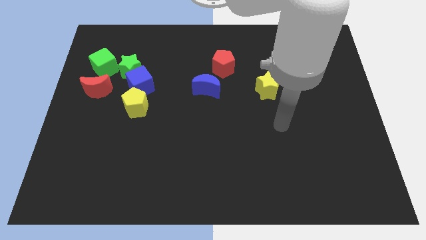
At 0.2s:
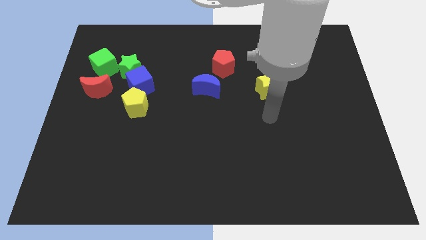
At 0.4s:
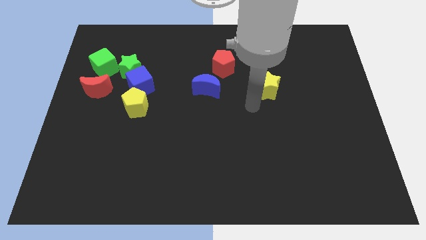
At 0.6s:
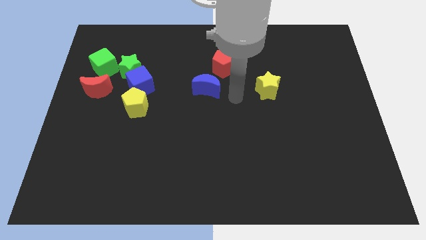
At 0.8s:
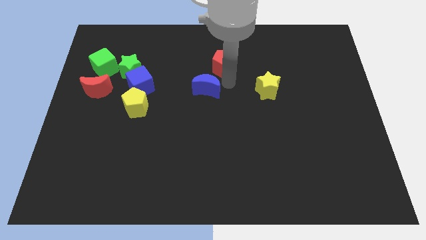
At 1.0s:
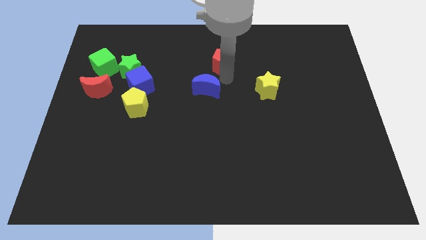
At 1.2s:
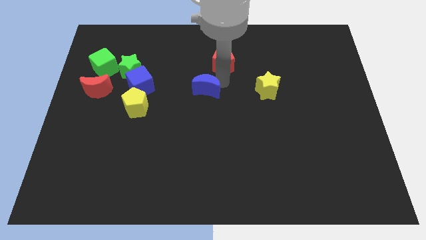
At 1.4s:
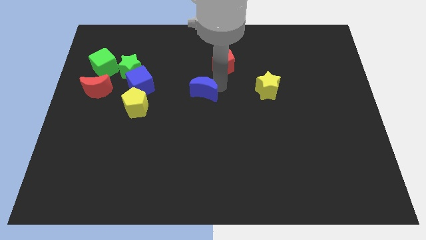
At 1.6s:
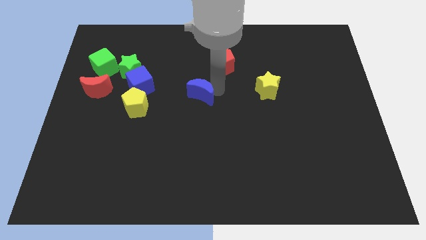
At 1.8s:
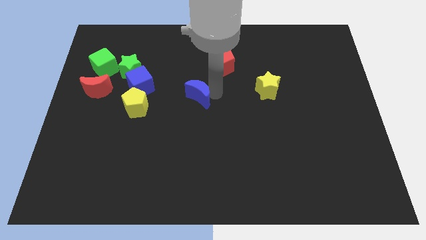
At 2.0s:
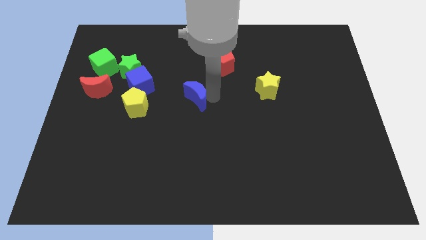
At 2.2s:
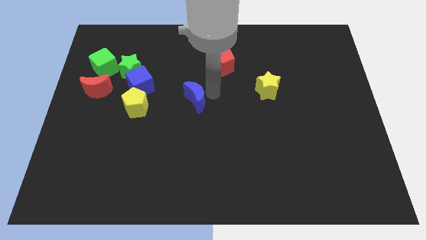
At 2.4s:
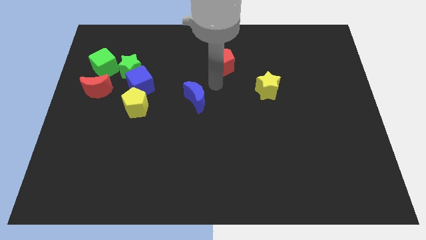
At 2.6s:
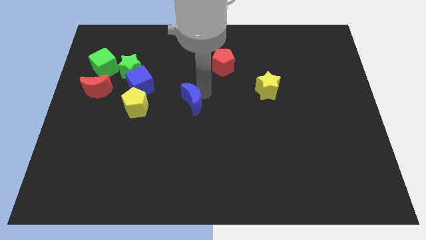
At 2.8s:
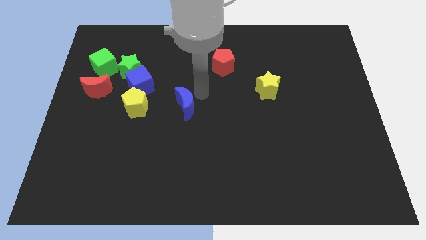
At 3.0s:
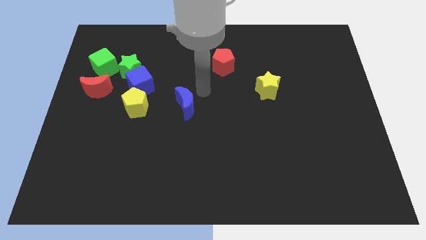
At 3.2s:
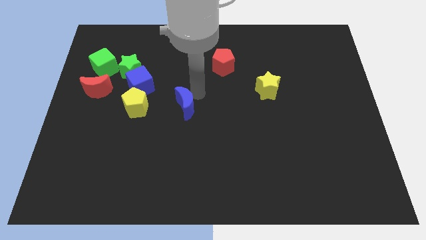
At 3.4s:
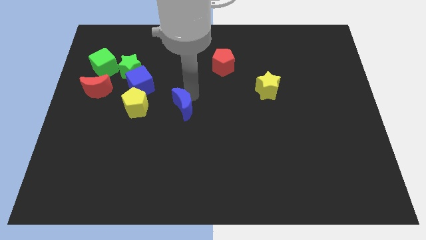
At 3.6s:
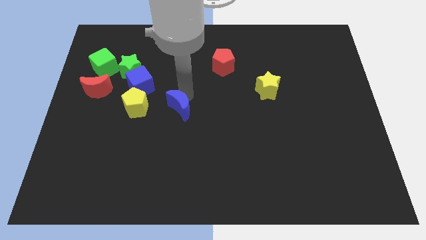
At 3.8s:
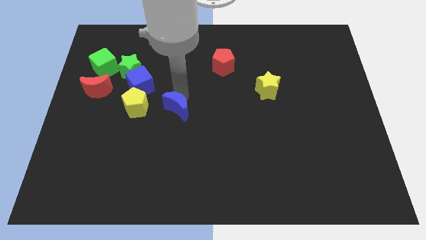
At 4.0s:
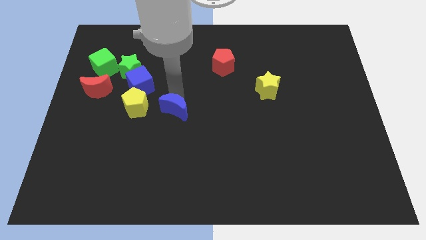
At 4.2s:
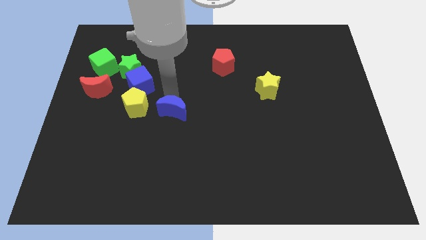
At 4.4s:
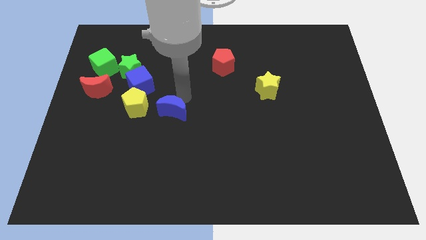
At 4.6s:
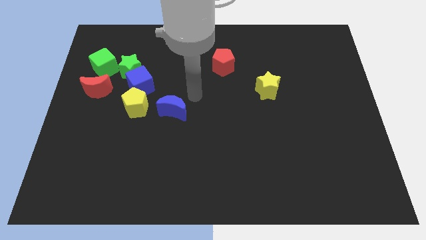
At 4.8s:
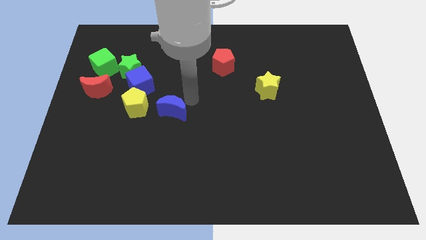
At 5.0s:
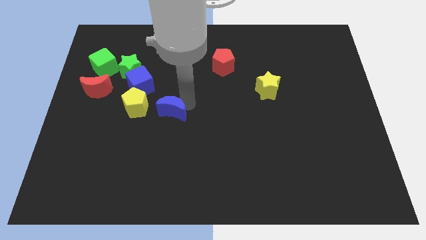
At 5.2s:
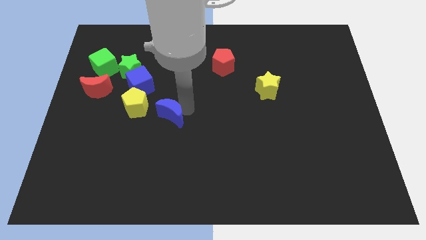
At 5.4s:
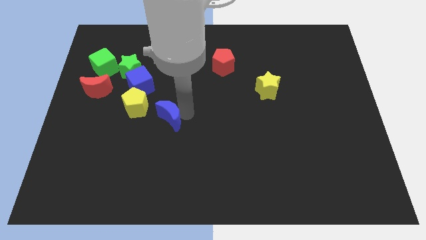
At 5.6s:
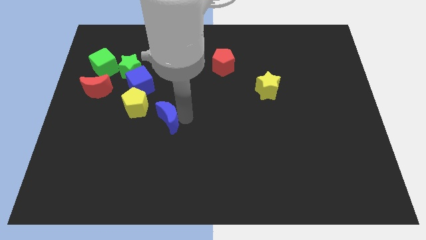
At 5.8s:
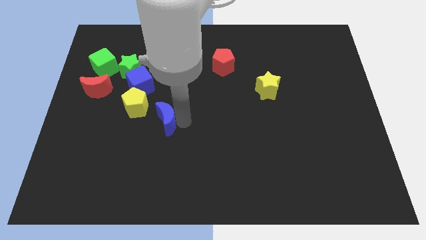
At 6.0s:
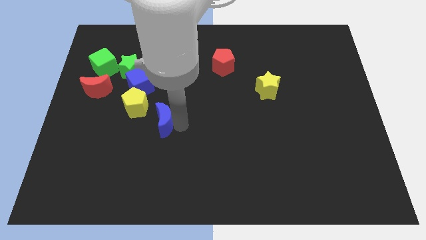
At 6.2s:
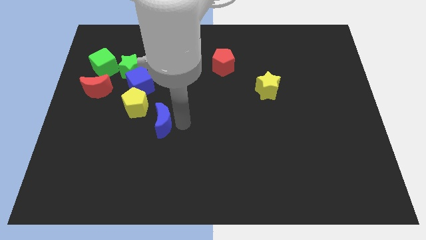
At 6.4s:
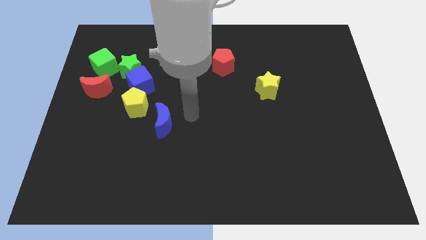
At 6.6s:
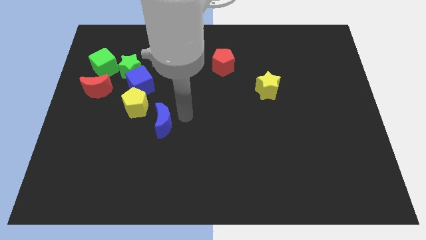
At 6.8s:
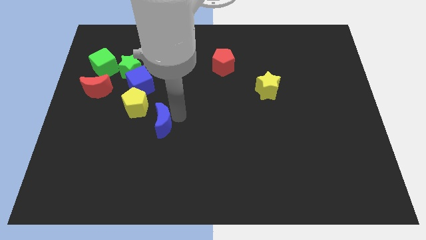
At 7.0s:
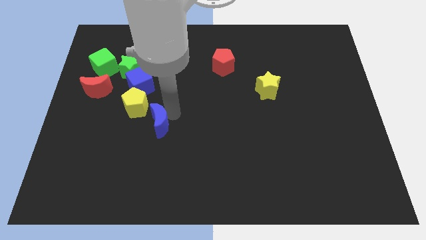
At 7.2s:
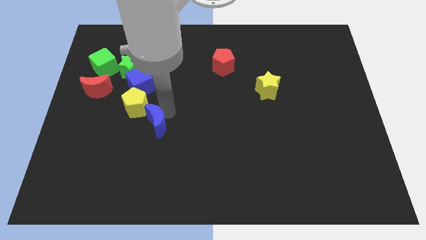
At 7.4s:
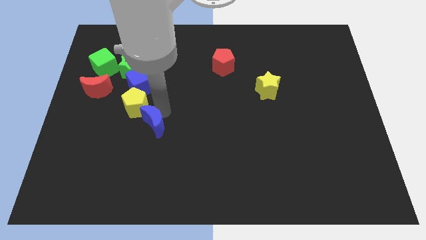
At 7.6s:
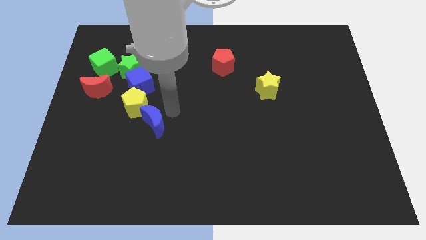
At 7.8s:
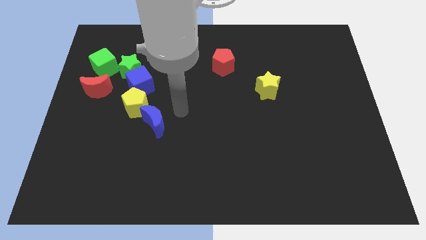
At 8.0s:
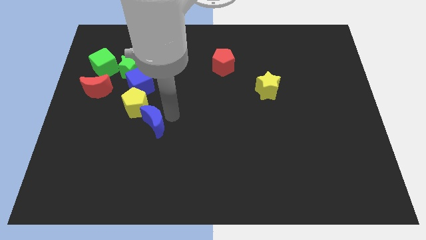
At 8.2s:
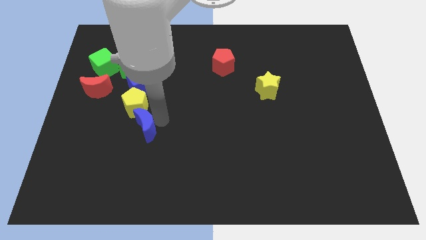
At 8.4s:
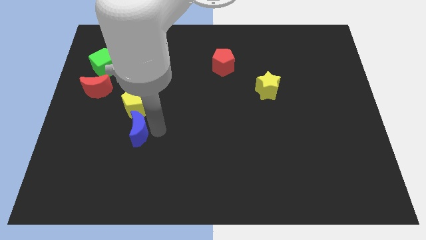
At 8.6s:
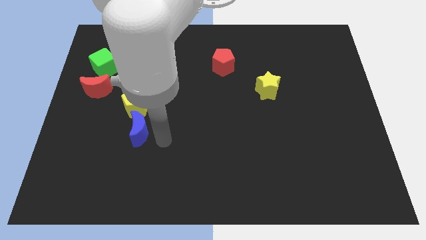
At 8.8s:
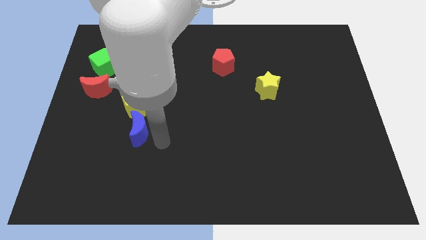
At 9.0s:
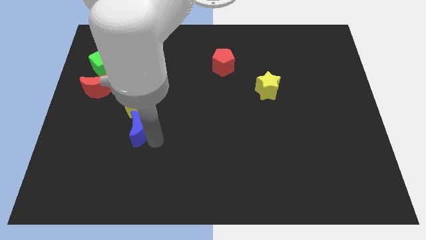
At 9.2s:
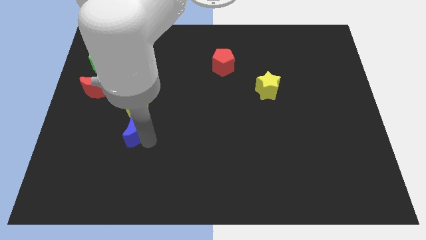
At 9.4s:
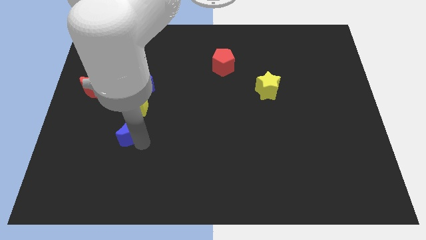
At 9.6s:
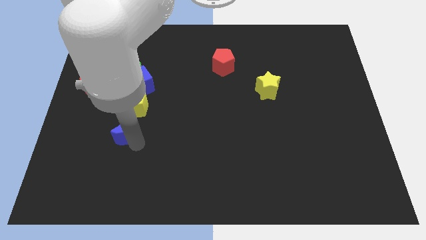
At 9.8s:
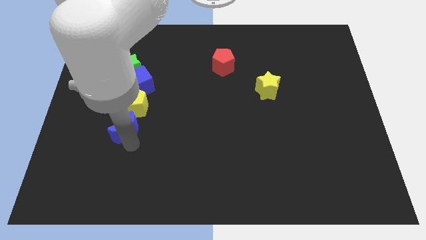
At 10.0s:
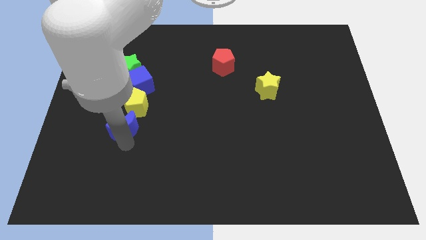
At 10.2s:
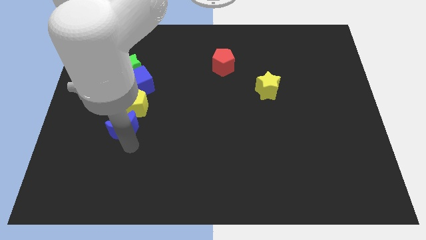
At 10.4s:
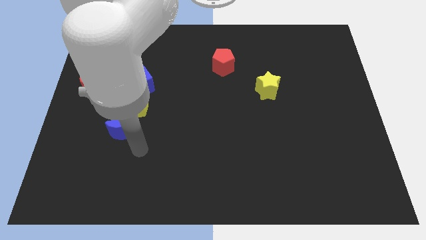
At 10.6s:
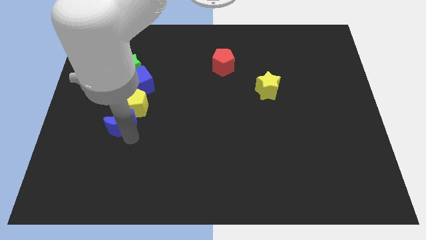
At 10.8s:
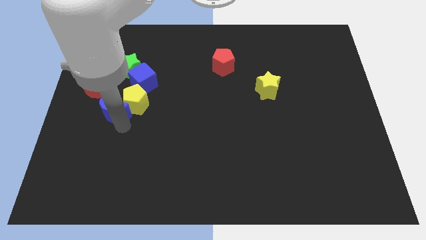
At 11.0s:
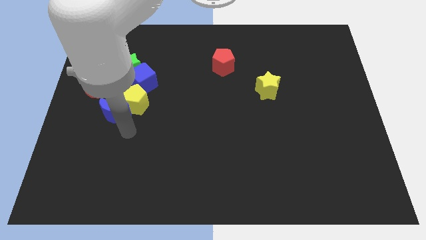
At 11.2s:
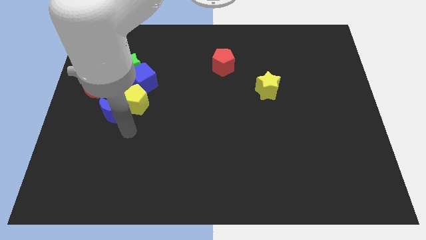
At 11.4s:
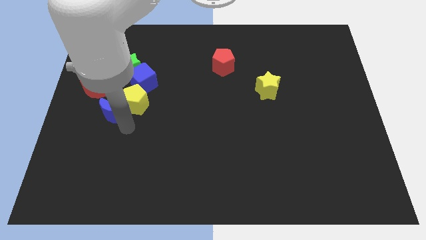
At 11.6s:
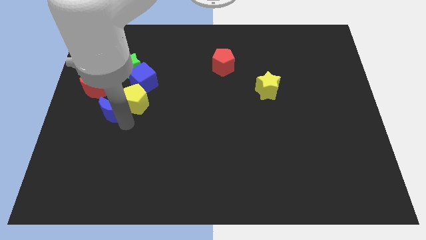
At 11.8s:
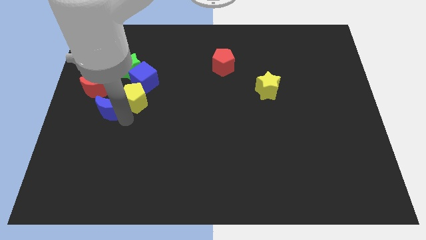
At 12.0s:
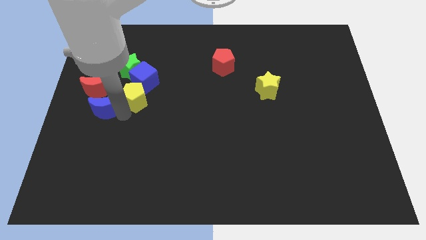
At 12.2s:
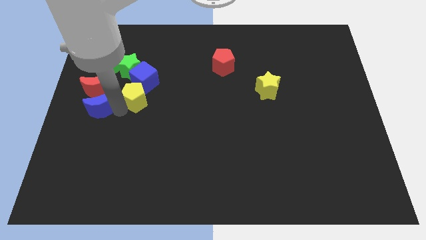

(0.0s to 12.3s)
put the blue moon next to the red moon

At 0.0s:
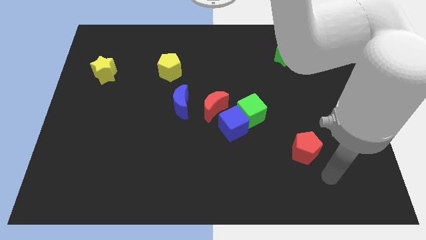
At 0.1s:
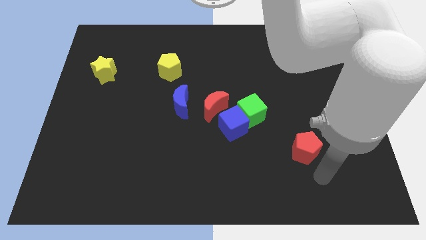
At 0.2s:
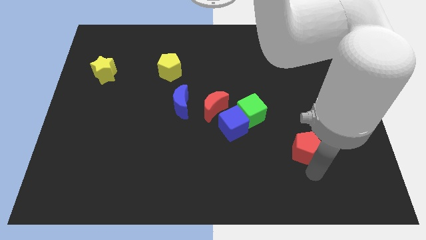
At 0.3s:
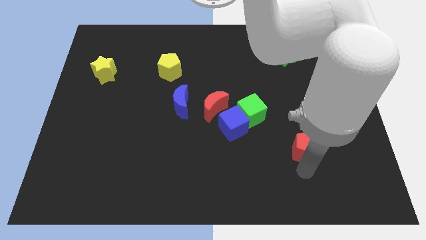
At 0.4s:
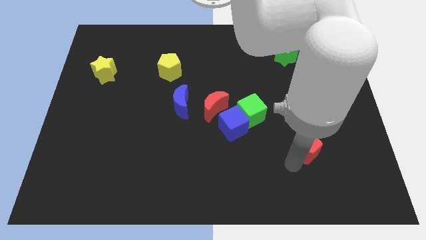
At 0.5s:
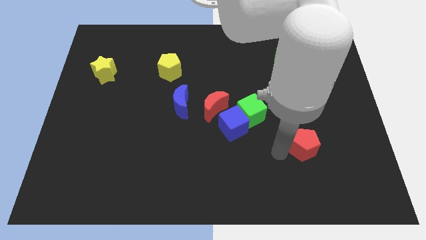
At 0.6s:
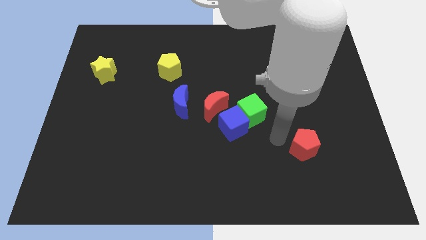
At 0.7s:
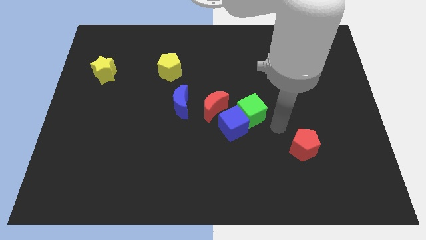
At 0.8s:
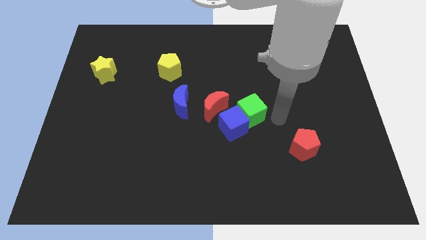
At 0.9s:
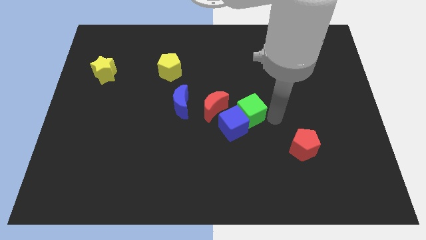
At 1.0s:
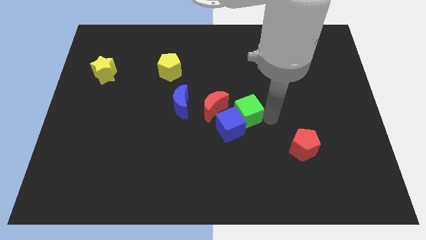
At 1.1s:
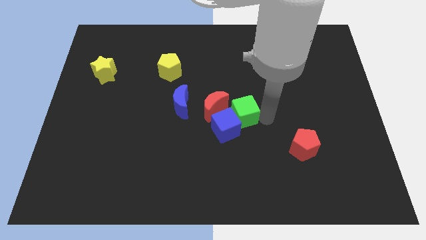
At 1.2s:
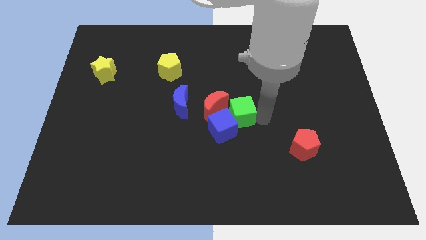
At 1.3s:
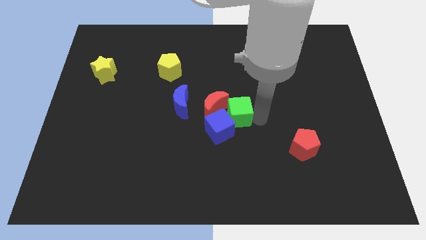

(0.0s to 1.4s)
move the green cube towards the red moon

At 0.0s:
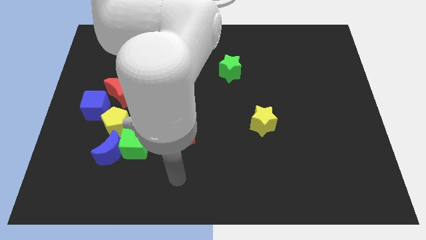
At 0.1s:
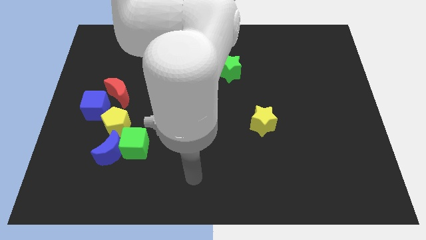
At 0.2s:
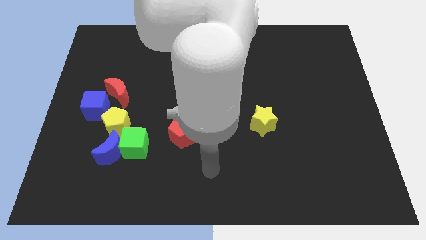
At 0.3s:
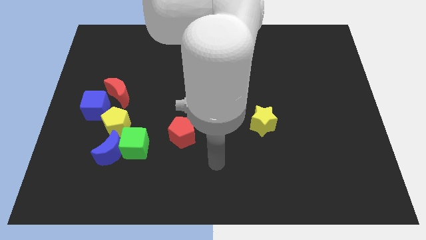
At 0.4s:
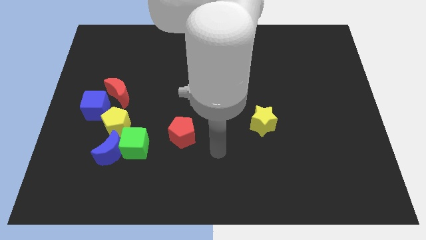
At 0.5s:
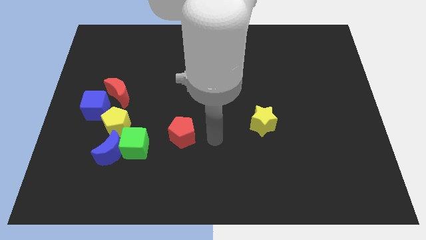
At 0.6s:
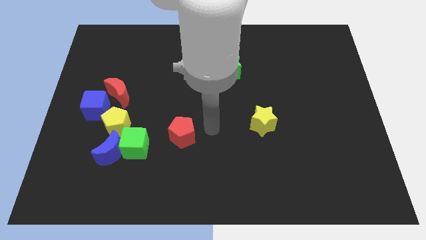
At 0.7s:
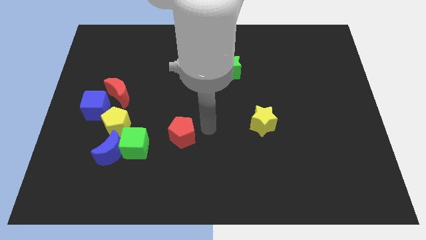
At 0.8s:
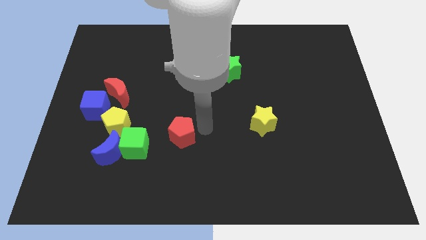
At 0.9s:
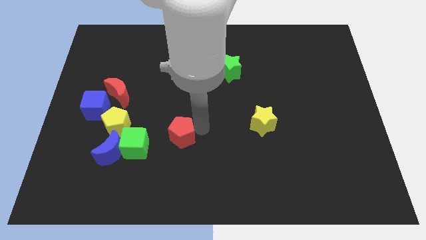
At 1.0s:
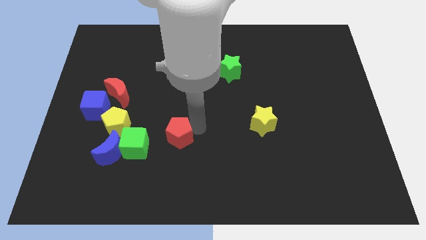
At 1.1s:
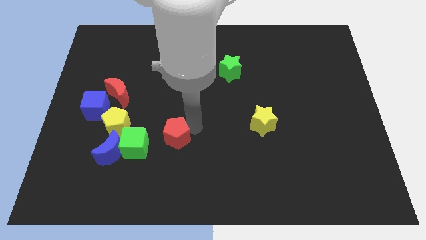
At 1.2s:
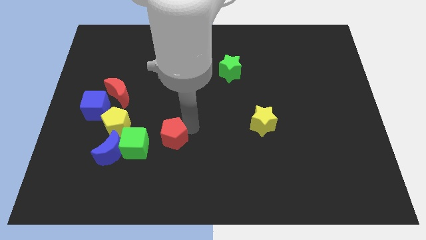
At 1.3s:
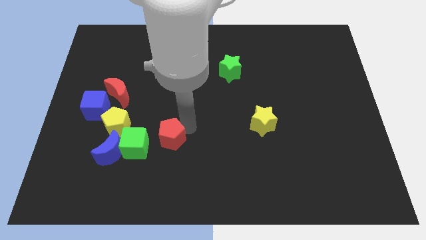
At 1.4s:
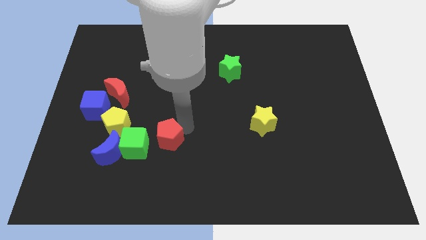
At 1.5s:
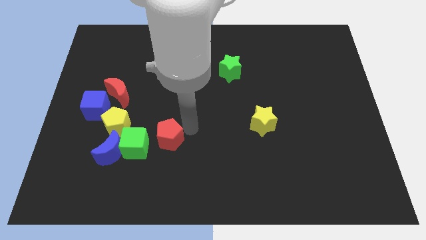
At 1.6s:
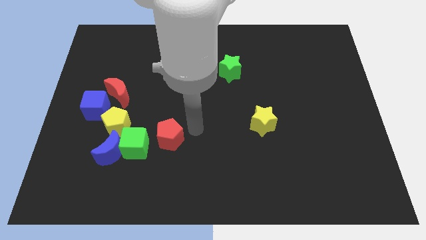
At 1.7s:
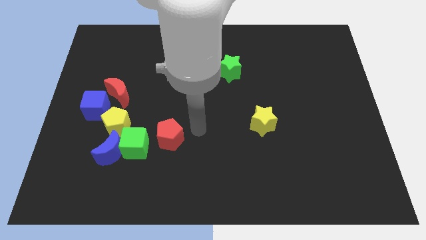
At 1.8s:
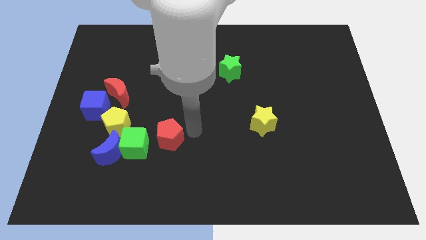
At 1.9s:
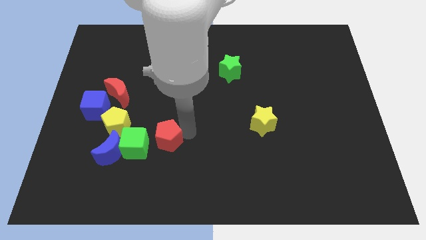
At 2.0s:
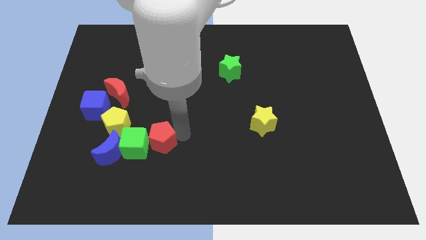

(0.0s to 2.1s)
push the red pentagon to the green cube
